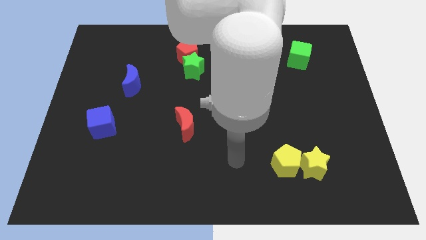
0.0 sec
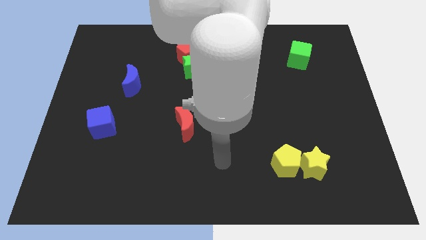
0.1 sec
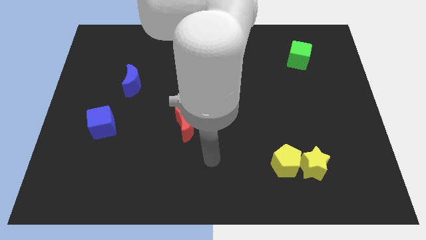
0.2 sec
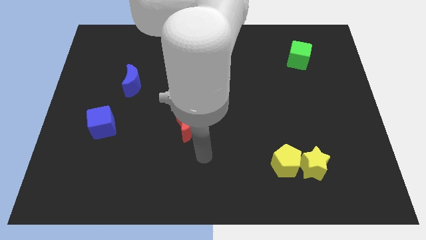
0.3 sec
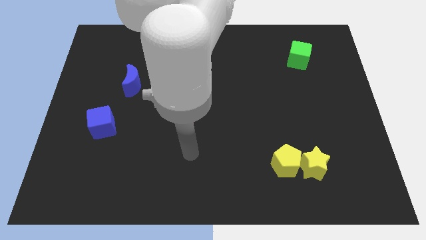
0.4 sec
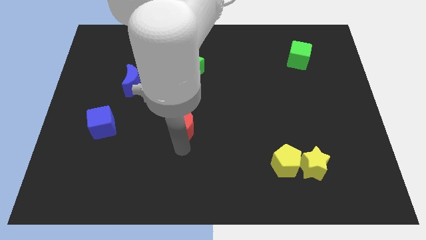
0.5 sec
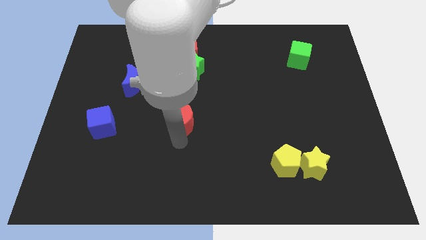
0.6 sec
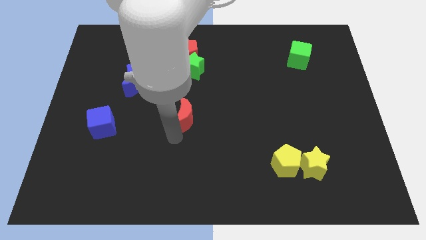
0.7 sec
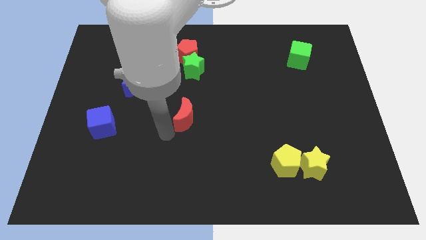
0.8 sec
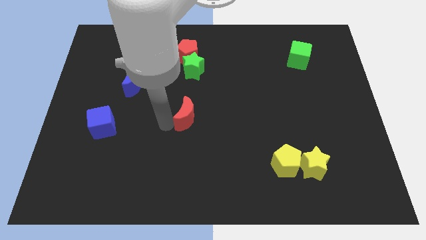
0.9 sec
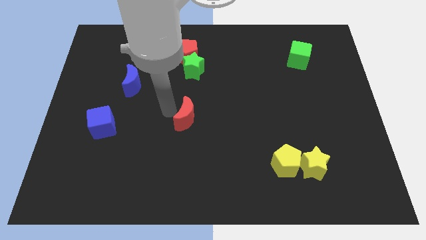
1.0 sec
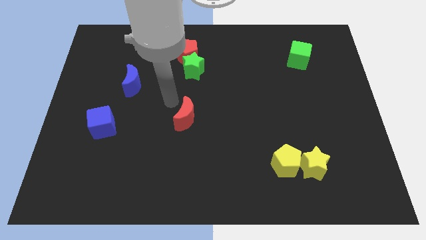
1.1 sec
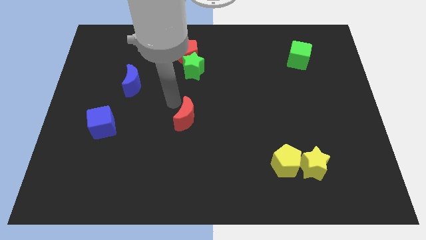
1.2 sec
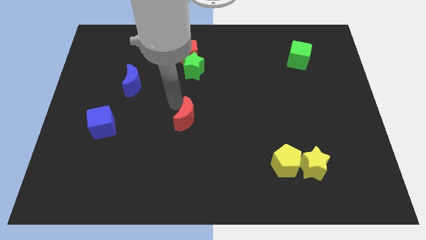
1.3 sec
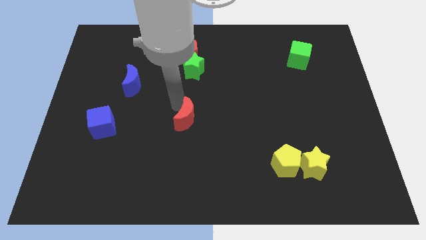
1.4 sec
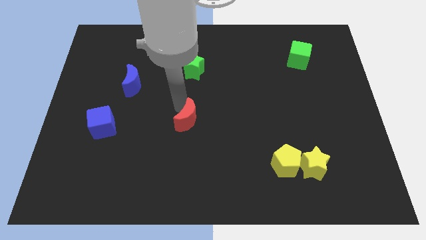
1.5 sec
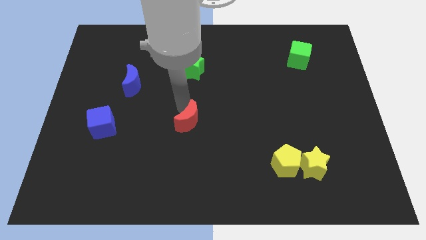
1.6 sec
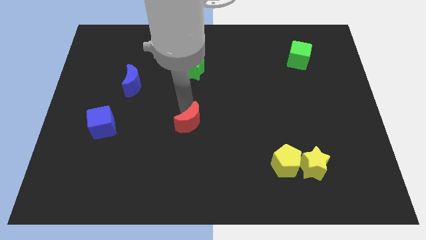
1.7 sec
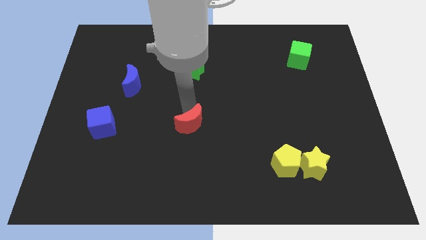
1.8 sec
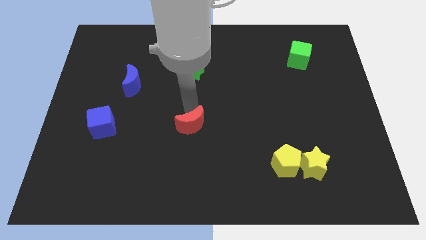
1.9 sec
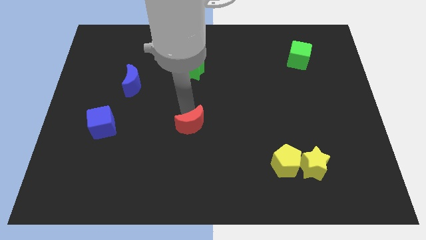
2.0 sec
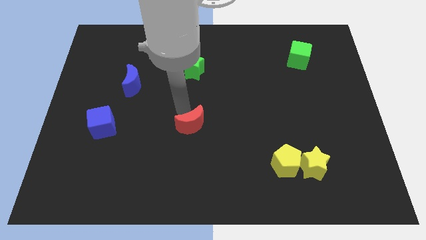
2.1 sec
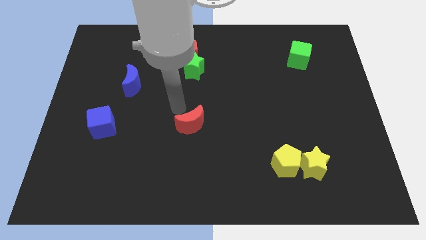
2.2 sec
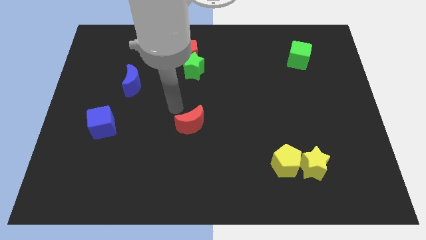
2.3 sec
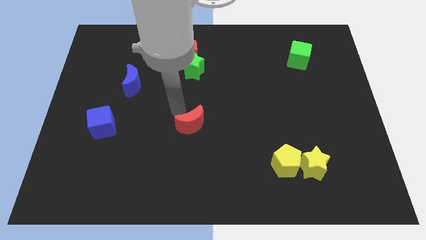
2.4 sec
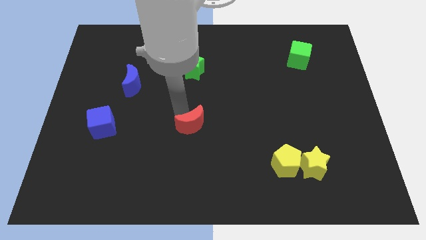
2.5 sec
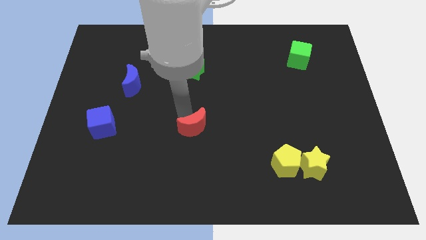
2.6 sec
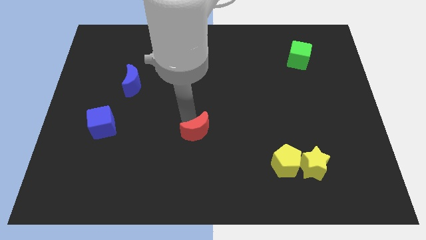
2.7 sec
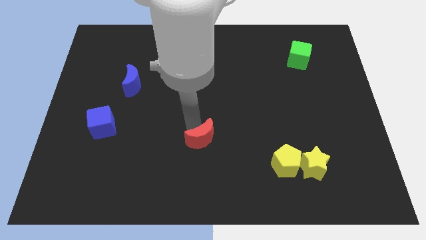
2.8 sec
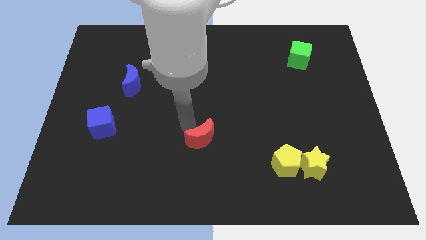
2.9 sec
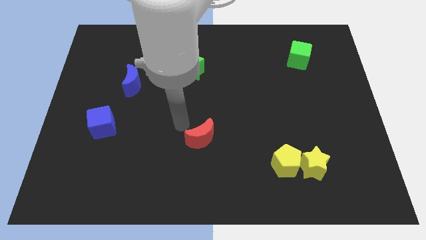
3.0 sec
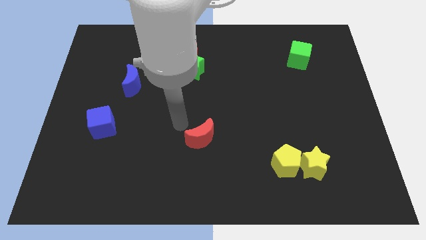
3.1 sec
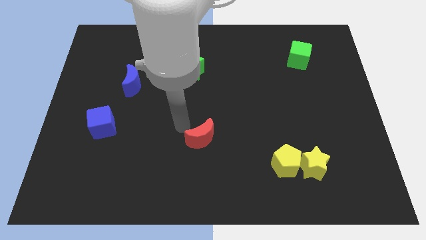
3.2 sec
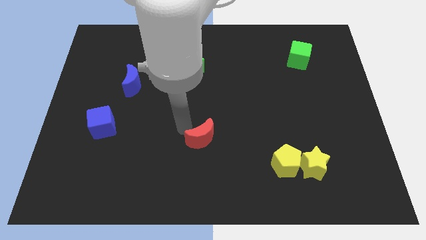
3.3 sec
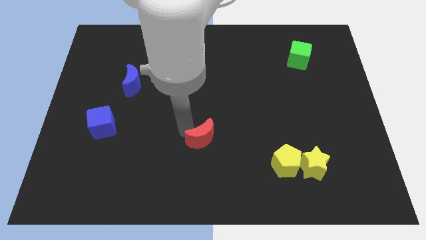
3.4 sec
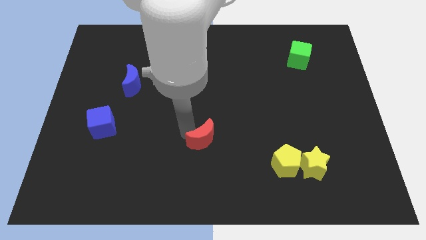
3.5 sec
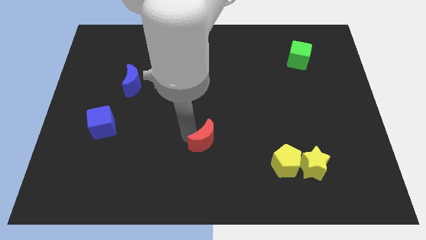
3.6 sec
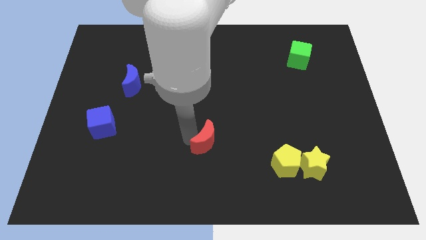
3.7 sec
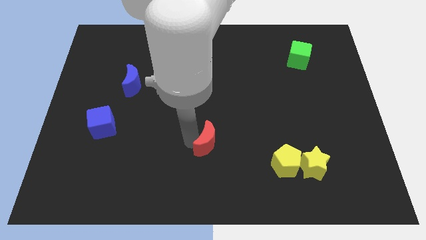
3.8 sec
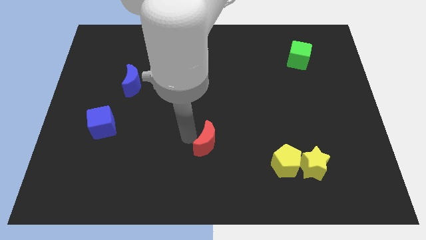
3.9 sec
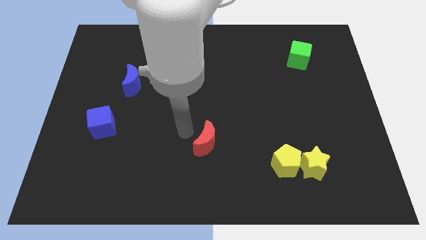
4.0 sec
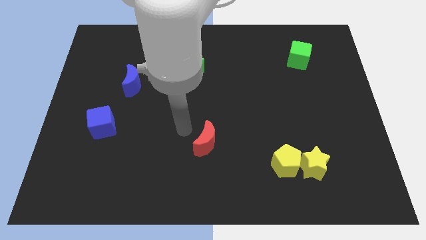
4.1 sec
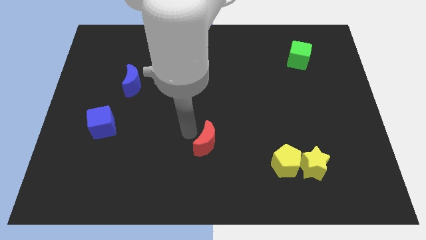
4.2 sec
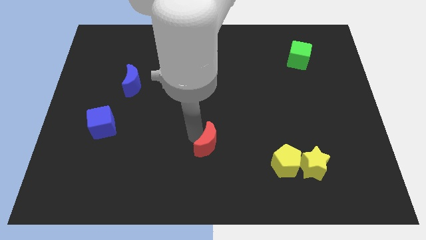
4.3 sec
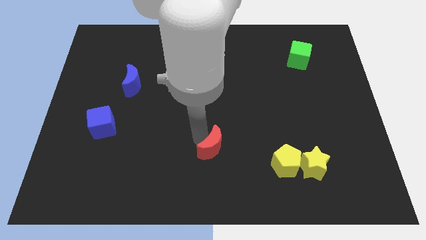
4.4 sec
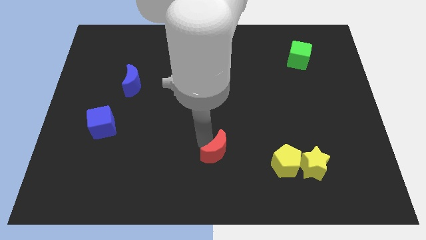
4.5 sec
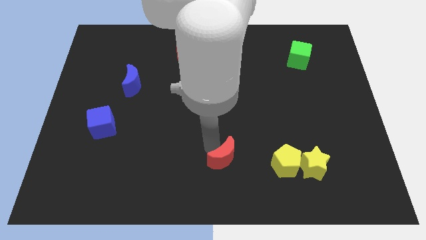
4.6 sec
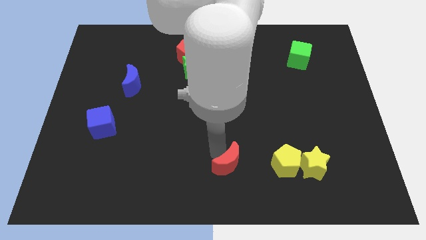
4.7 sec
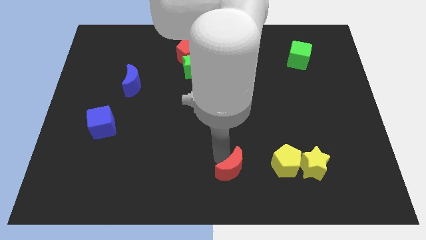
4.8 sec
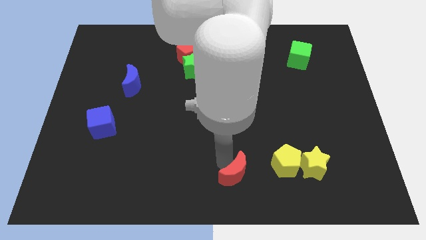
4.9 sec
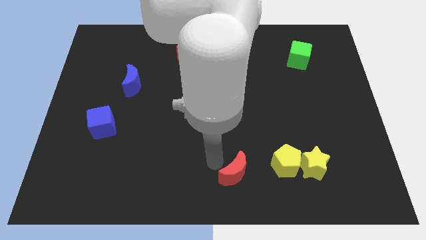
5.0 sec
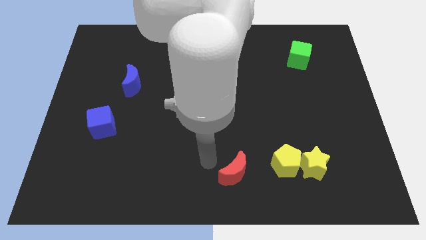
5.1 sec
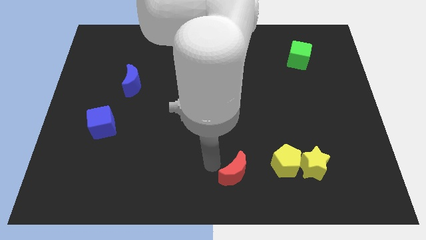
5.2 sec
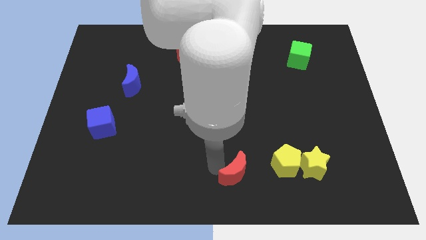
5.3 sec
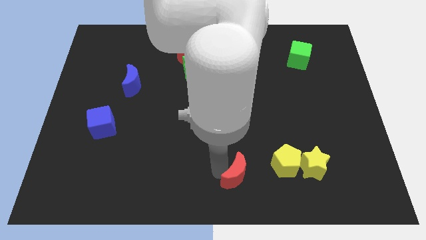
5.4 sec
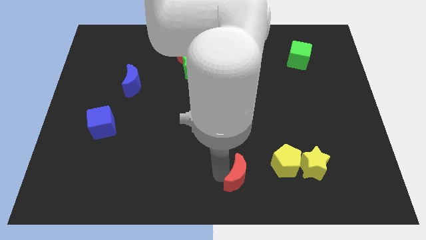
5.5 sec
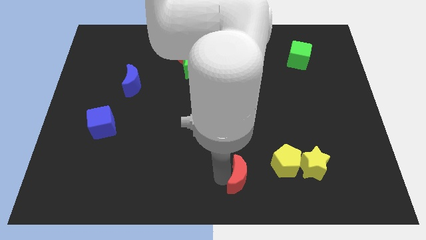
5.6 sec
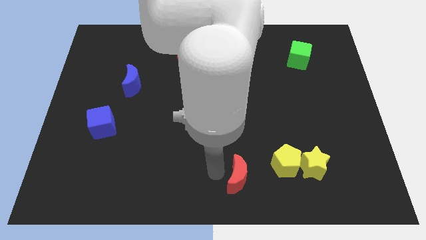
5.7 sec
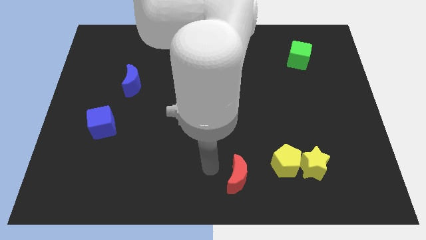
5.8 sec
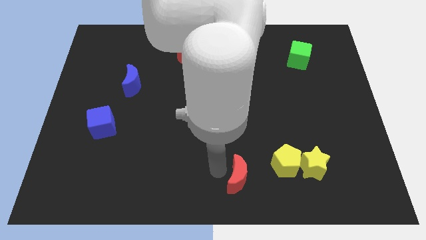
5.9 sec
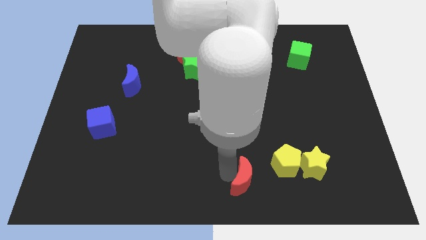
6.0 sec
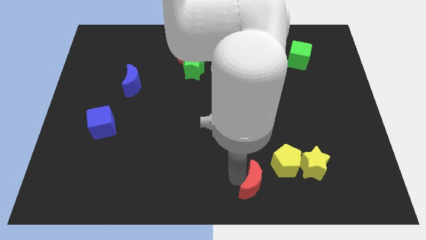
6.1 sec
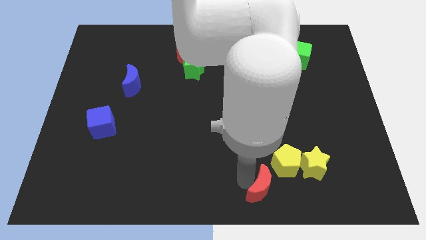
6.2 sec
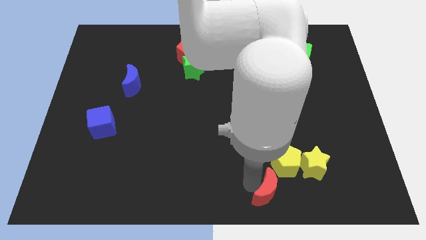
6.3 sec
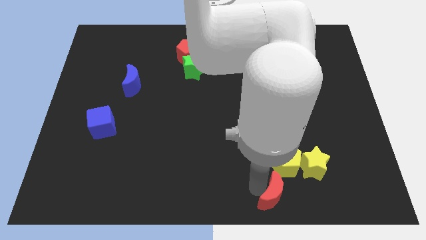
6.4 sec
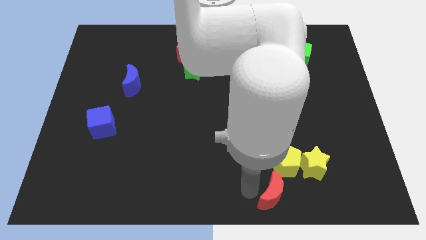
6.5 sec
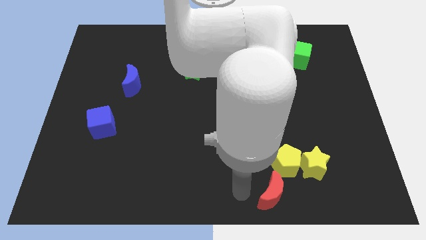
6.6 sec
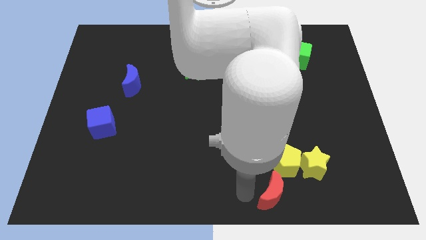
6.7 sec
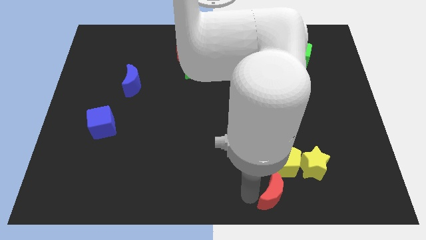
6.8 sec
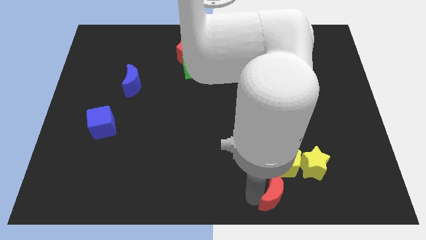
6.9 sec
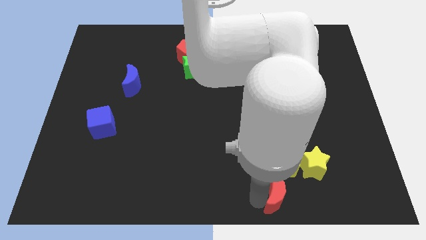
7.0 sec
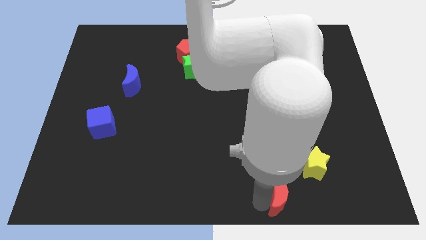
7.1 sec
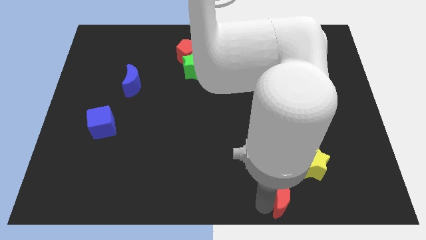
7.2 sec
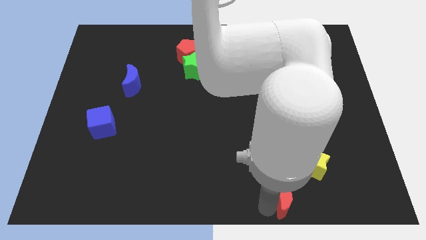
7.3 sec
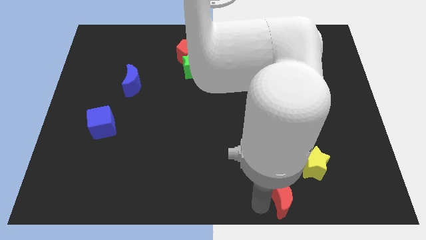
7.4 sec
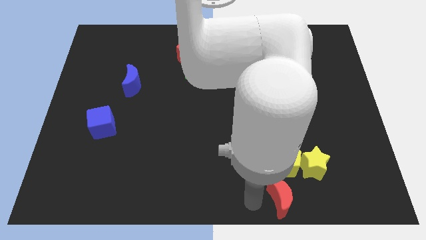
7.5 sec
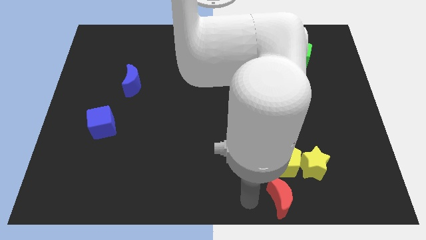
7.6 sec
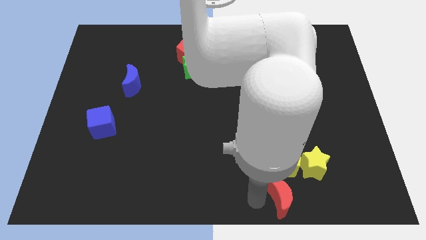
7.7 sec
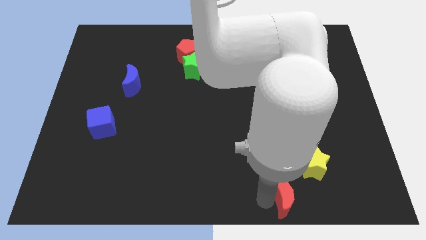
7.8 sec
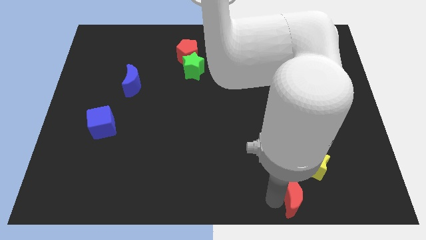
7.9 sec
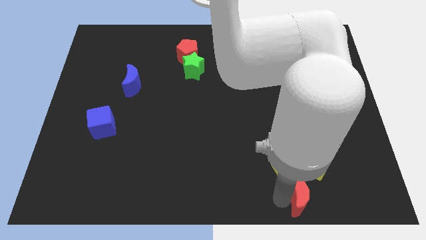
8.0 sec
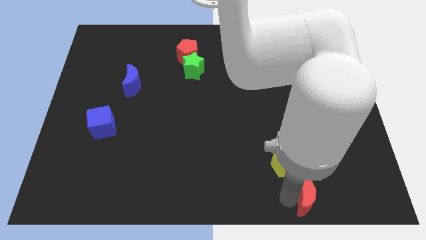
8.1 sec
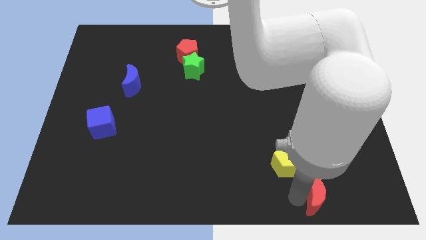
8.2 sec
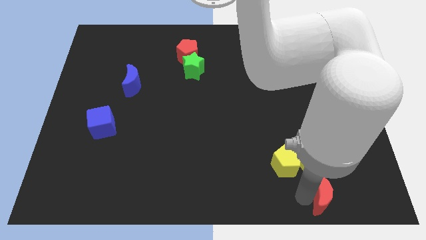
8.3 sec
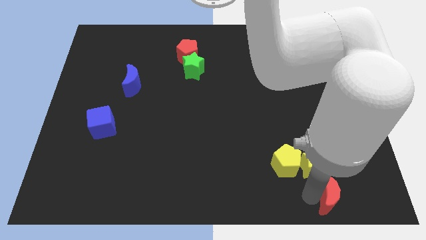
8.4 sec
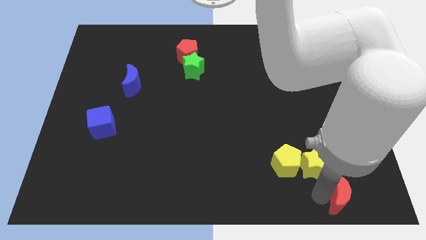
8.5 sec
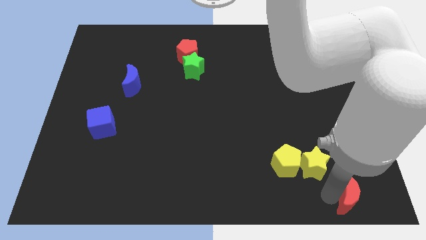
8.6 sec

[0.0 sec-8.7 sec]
put the red moon to the bottom right of the board
